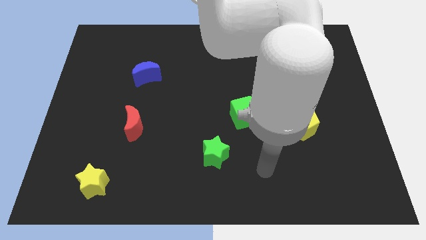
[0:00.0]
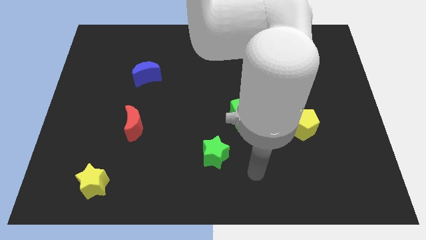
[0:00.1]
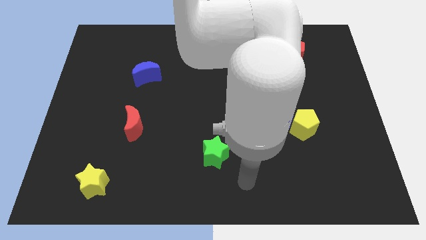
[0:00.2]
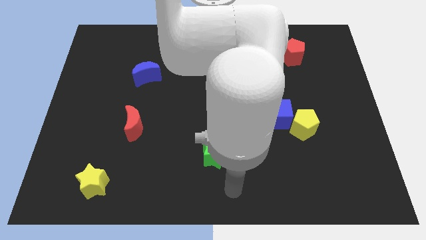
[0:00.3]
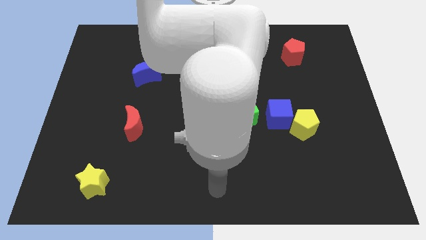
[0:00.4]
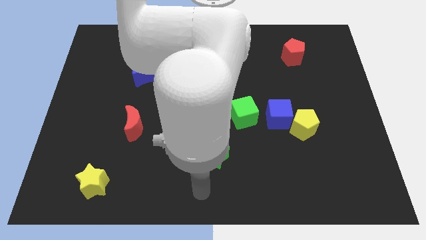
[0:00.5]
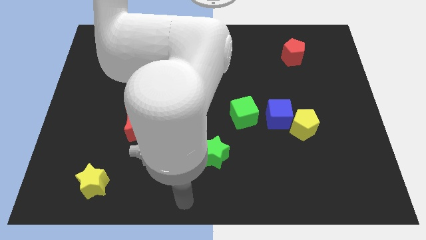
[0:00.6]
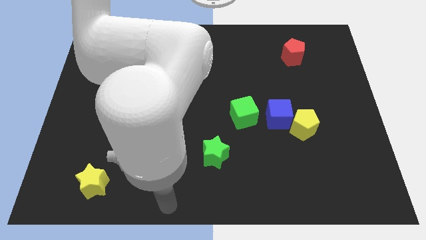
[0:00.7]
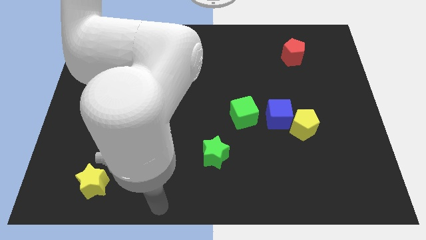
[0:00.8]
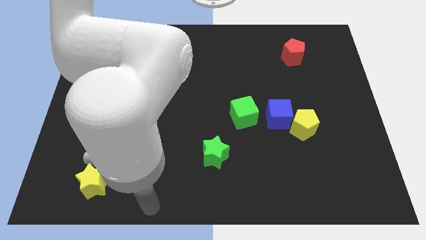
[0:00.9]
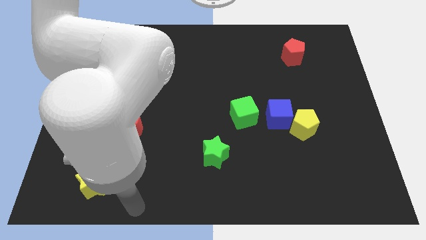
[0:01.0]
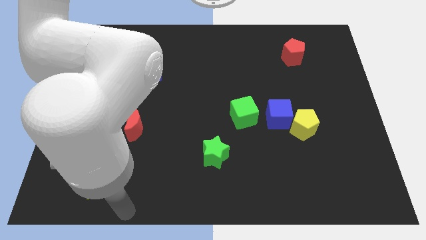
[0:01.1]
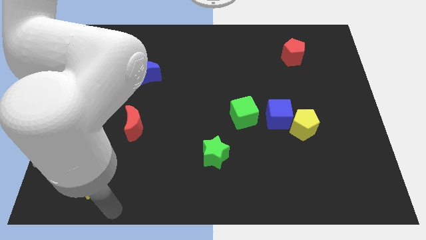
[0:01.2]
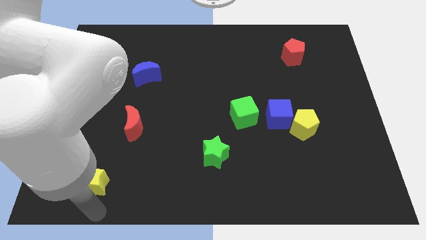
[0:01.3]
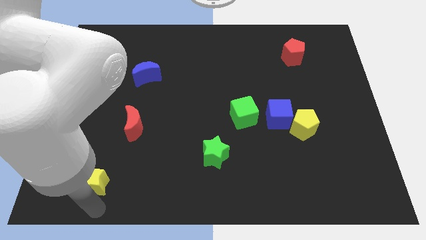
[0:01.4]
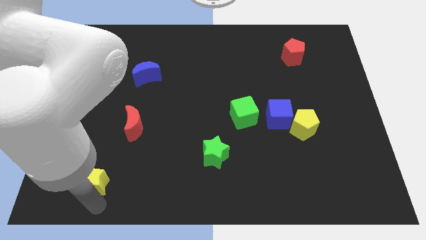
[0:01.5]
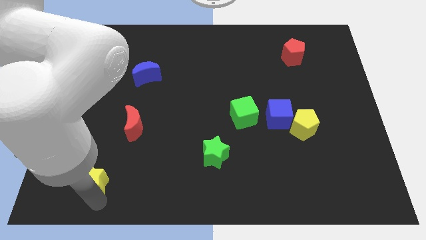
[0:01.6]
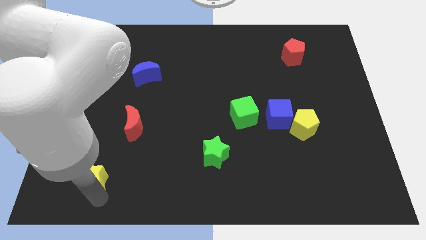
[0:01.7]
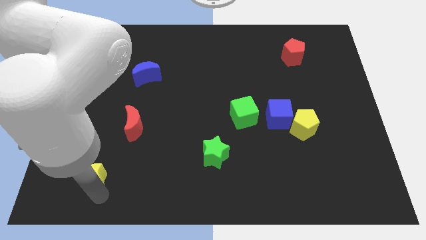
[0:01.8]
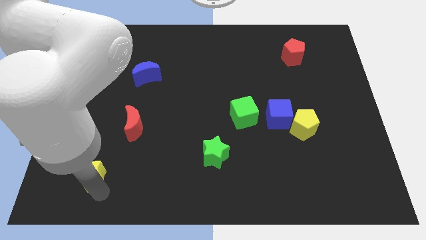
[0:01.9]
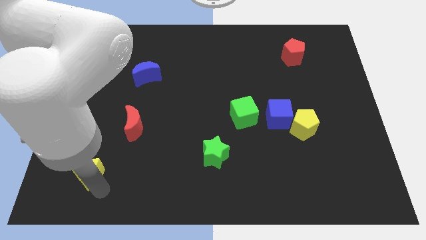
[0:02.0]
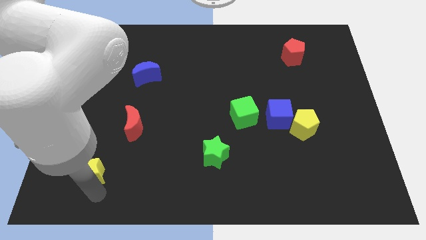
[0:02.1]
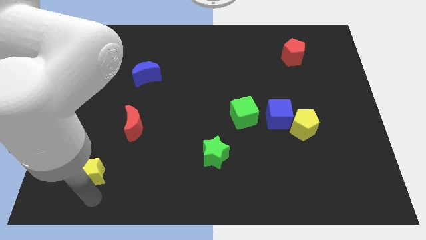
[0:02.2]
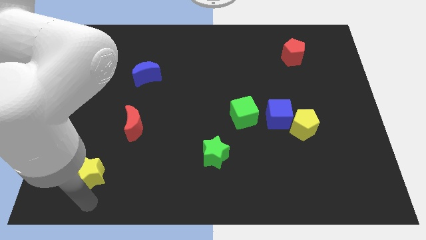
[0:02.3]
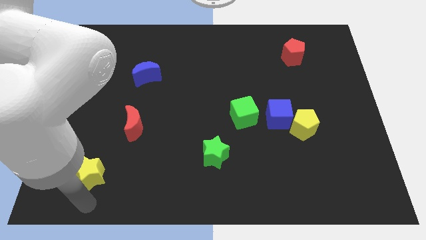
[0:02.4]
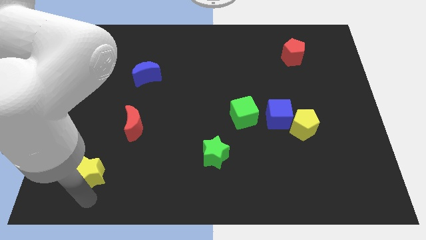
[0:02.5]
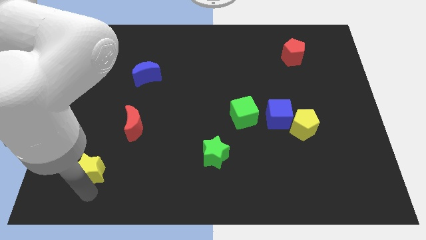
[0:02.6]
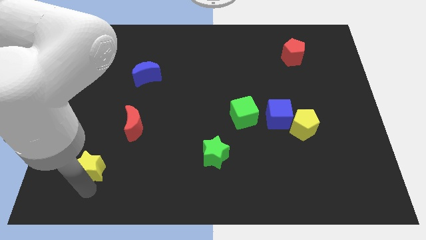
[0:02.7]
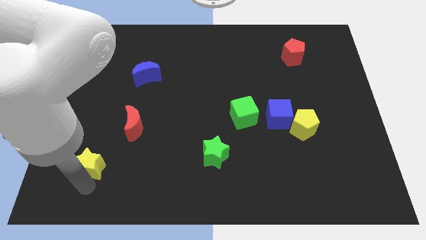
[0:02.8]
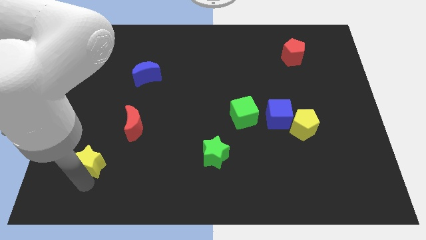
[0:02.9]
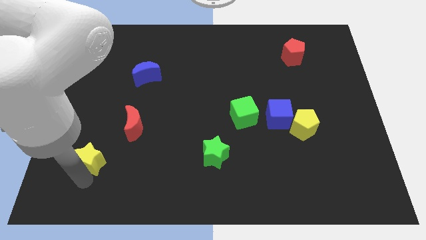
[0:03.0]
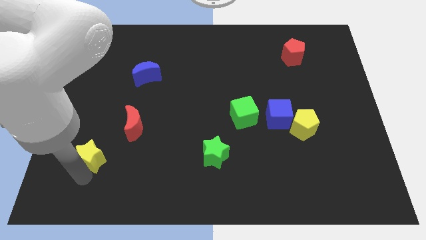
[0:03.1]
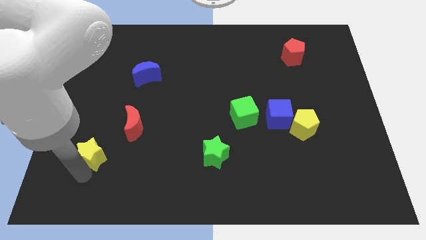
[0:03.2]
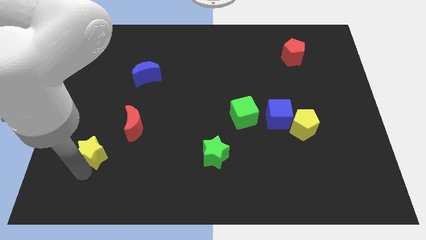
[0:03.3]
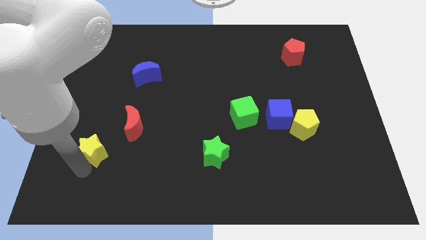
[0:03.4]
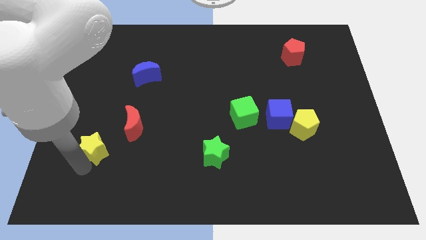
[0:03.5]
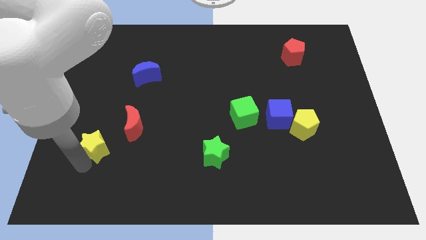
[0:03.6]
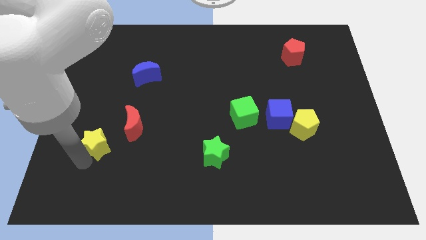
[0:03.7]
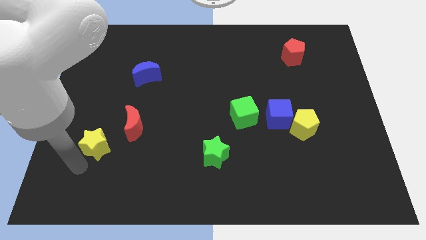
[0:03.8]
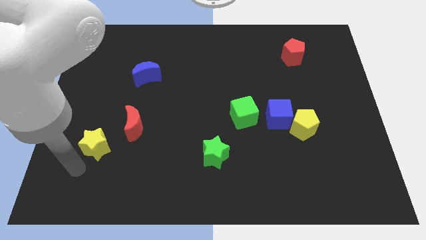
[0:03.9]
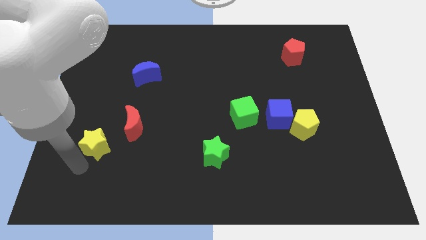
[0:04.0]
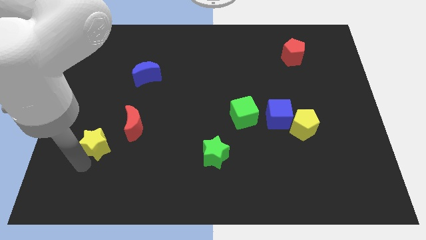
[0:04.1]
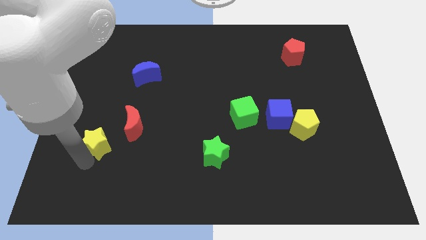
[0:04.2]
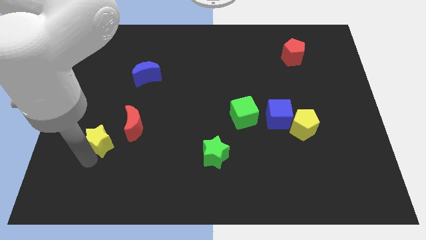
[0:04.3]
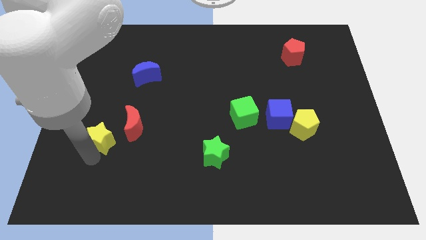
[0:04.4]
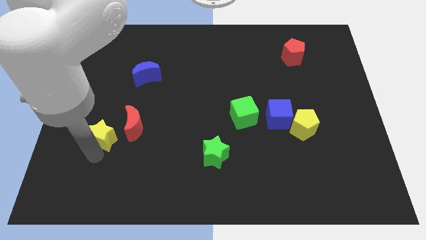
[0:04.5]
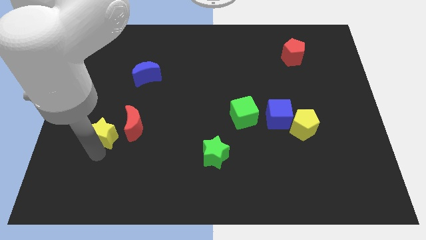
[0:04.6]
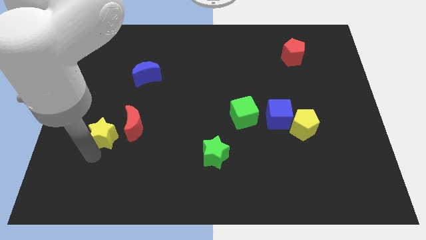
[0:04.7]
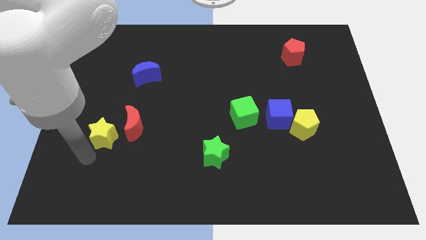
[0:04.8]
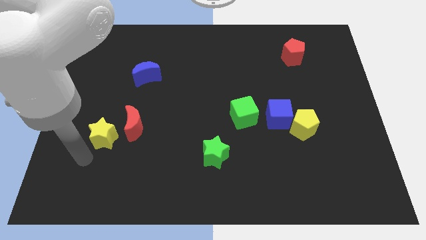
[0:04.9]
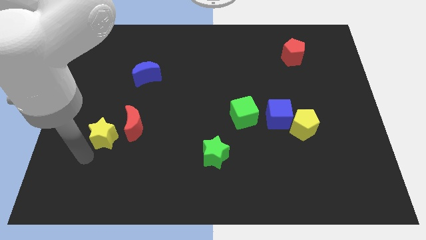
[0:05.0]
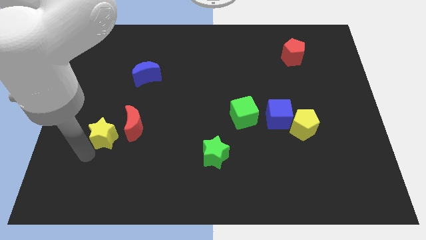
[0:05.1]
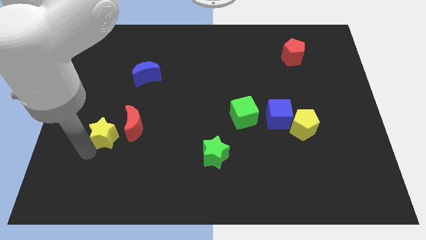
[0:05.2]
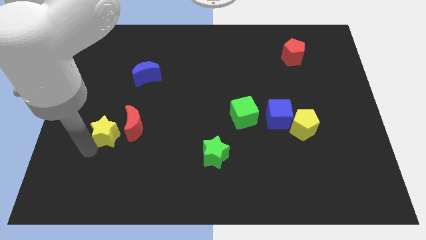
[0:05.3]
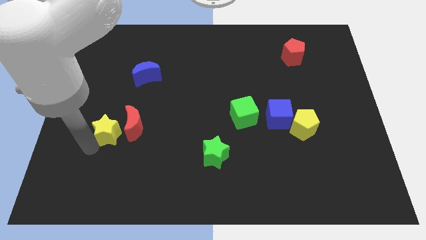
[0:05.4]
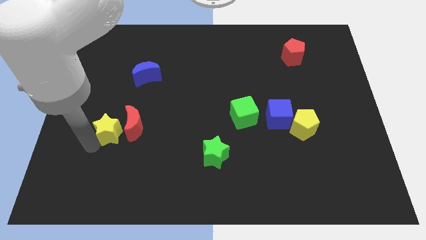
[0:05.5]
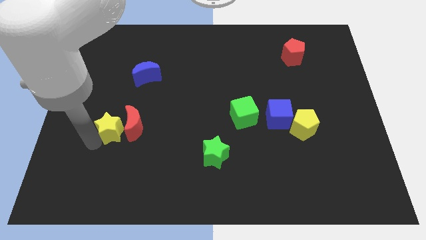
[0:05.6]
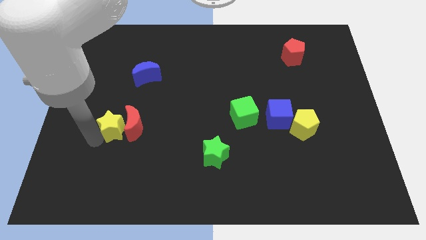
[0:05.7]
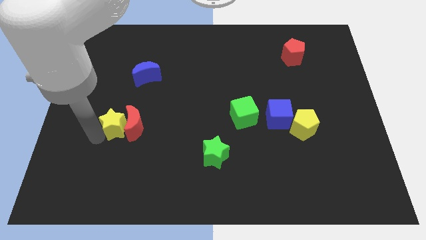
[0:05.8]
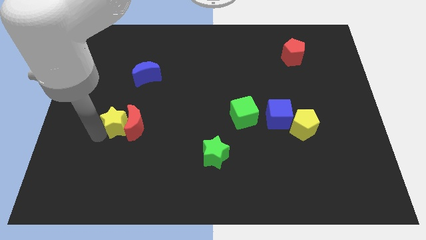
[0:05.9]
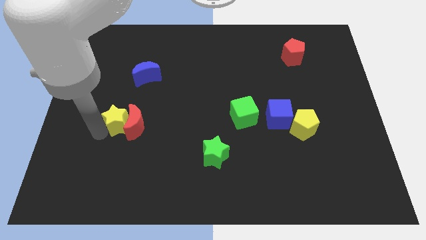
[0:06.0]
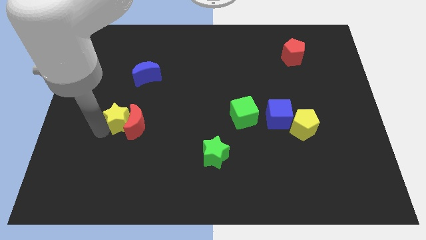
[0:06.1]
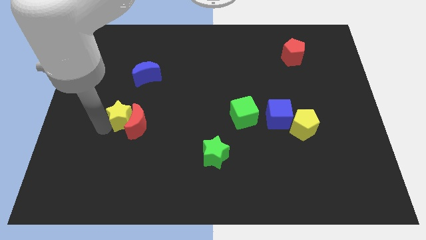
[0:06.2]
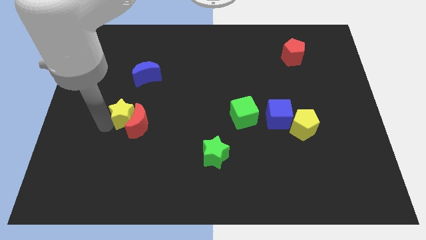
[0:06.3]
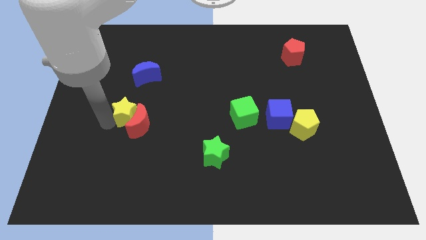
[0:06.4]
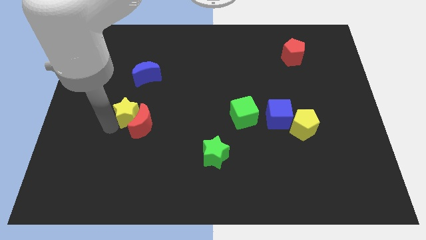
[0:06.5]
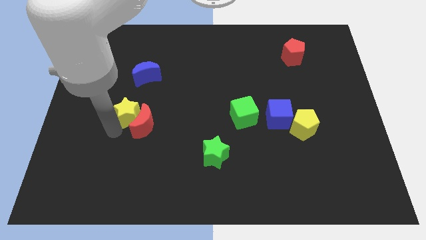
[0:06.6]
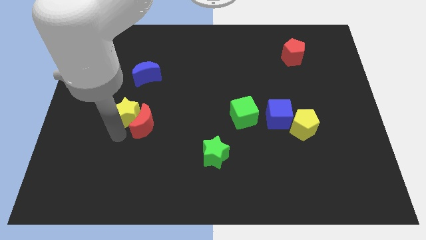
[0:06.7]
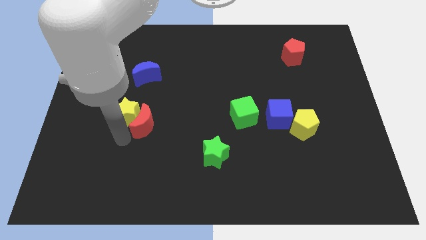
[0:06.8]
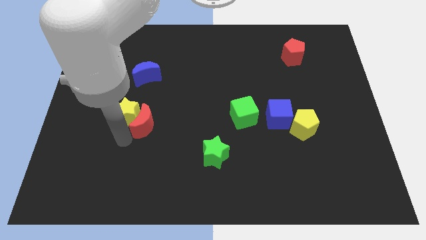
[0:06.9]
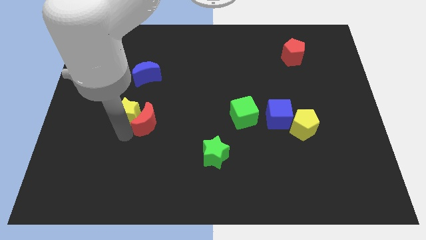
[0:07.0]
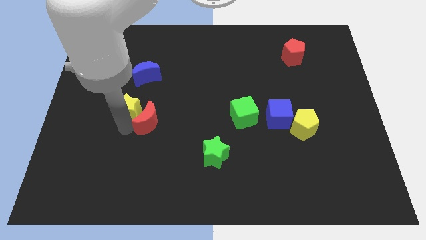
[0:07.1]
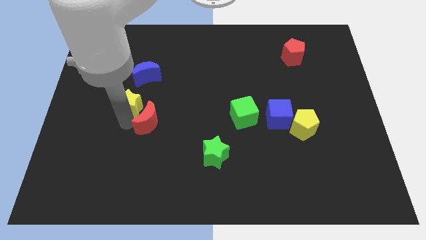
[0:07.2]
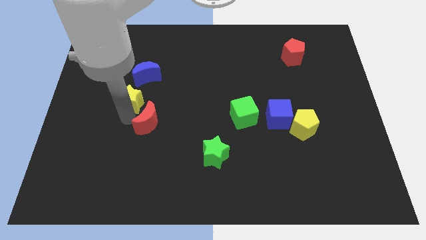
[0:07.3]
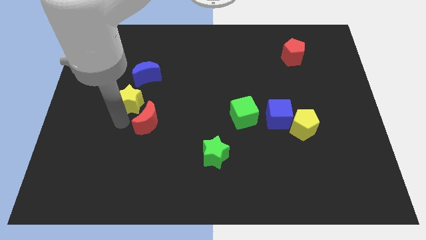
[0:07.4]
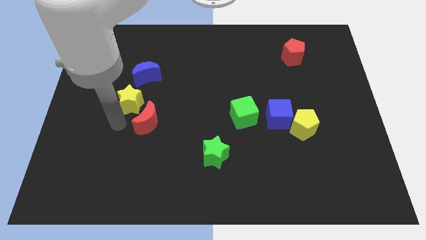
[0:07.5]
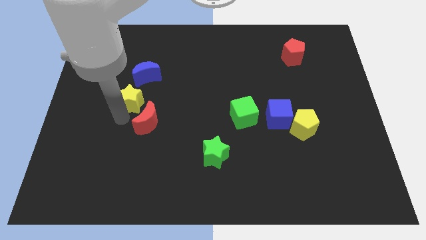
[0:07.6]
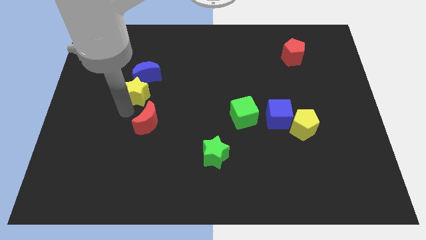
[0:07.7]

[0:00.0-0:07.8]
put the yellow star to the blue moon
